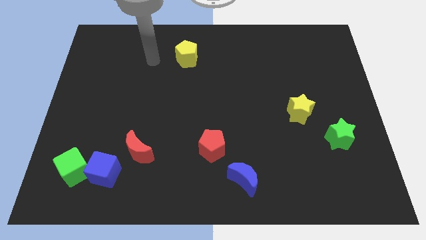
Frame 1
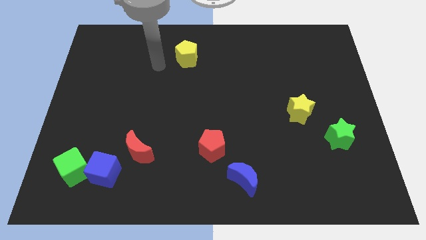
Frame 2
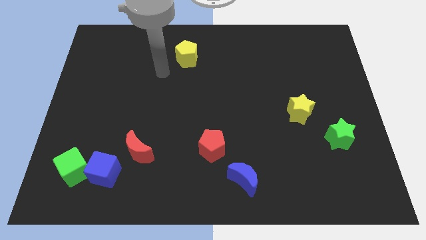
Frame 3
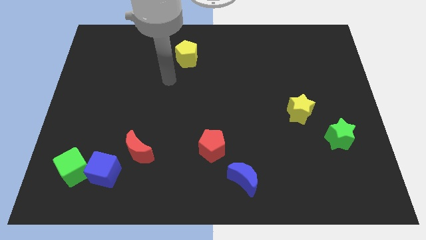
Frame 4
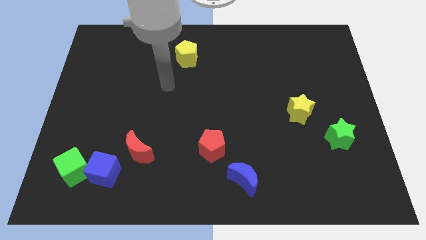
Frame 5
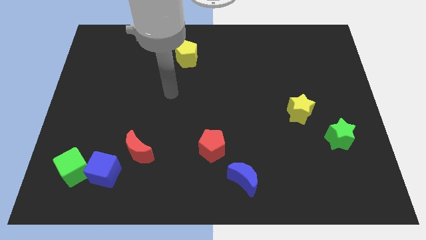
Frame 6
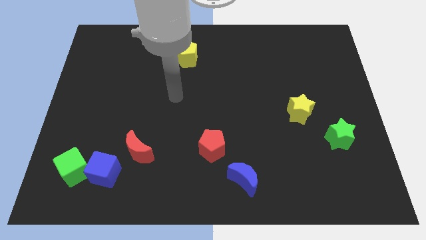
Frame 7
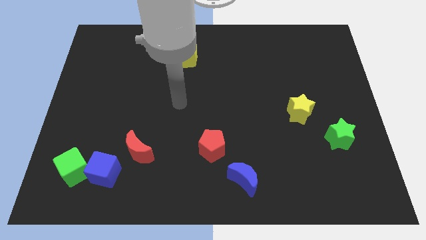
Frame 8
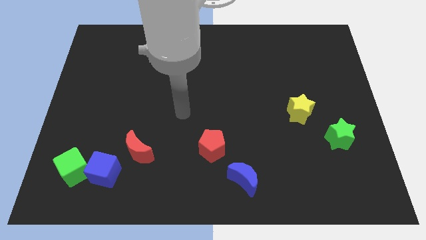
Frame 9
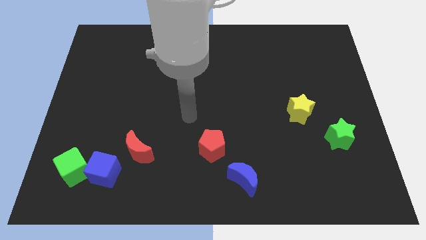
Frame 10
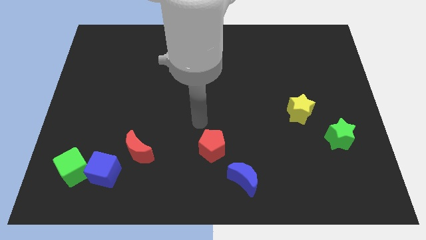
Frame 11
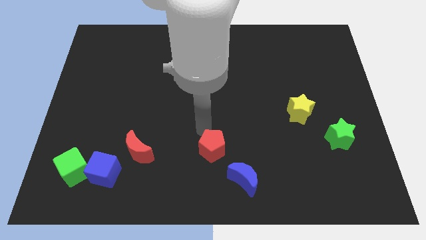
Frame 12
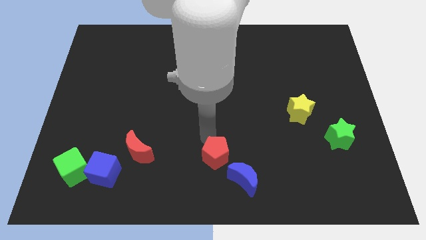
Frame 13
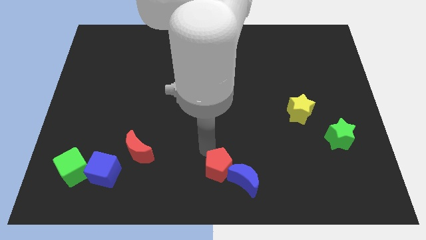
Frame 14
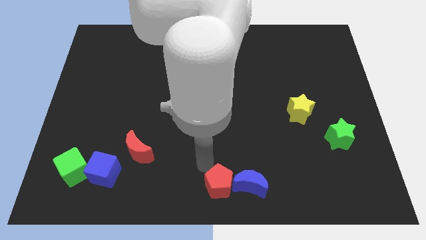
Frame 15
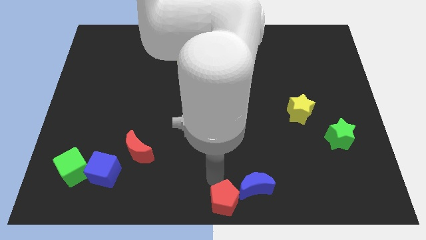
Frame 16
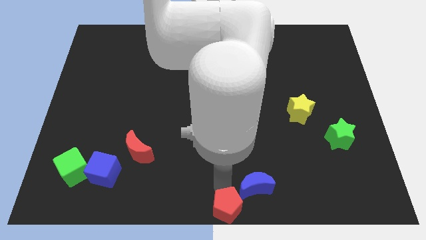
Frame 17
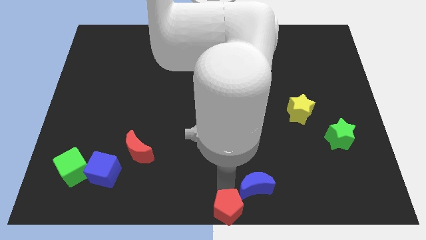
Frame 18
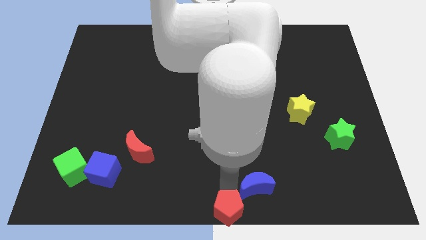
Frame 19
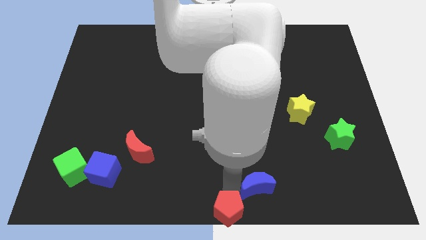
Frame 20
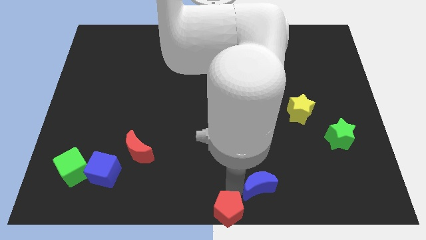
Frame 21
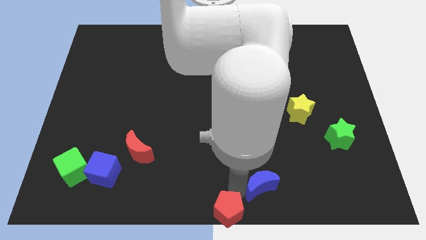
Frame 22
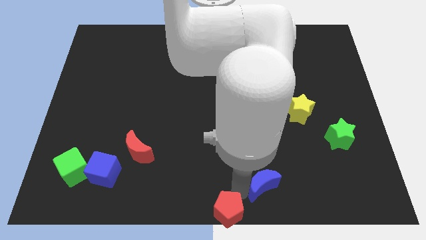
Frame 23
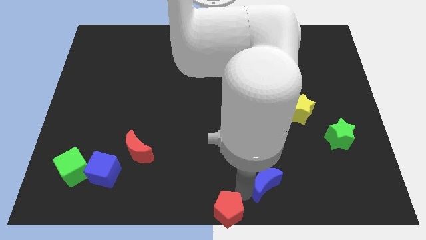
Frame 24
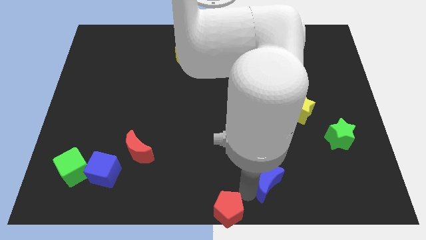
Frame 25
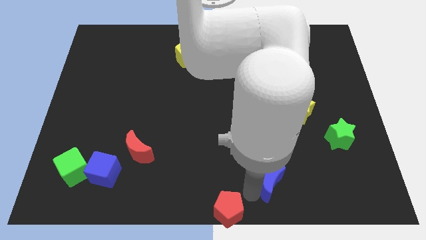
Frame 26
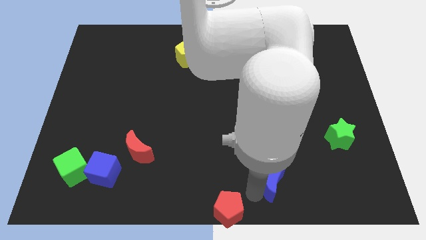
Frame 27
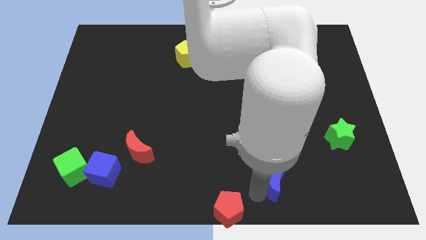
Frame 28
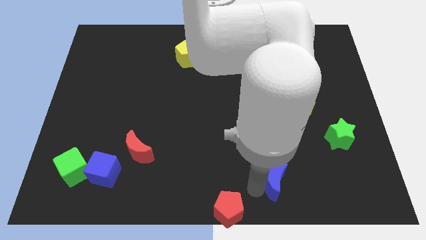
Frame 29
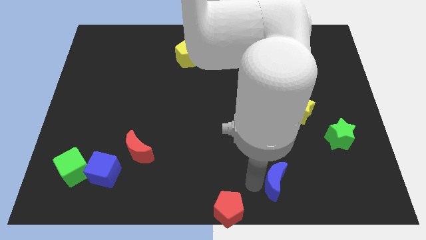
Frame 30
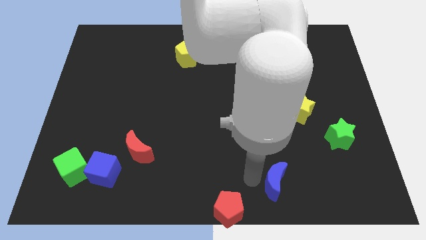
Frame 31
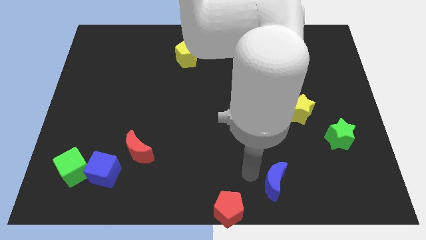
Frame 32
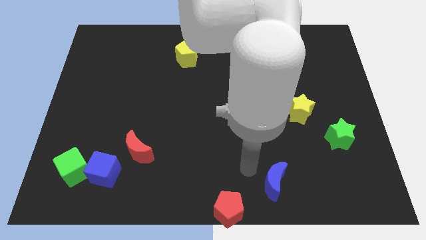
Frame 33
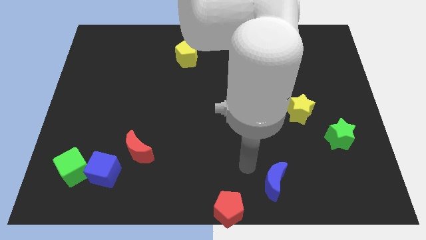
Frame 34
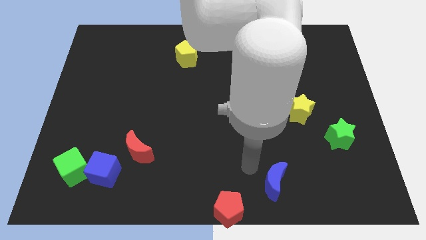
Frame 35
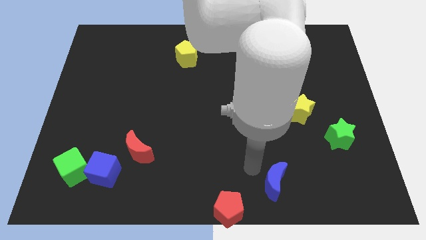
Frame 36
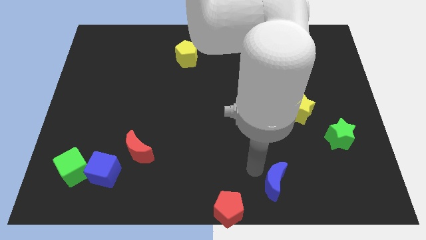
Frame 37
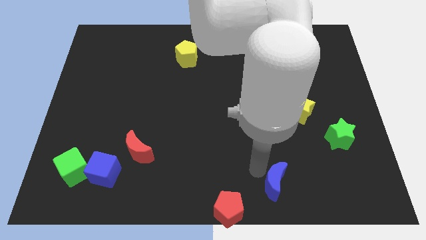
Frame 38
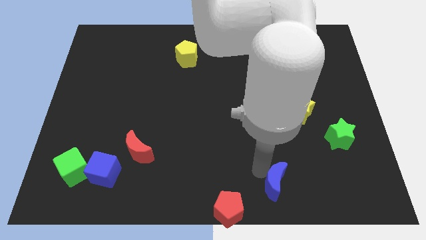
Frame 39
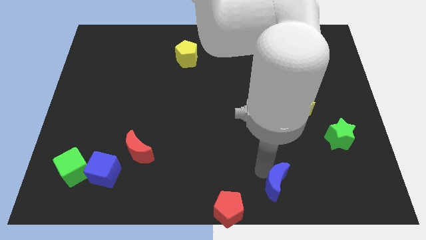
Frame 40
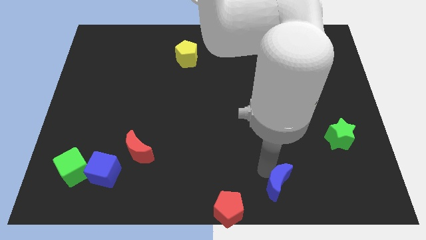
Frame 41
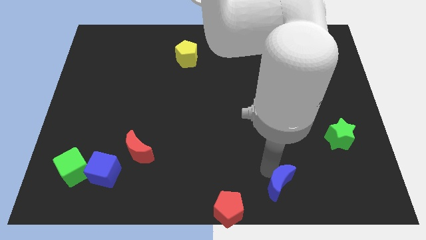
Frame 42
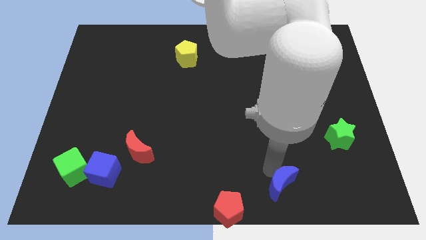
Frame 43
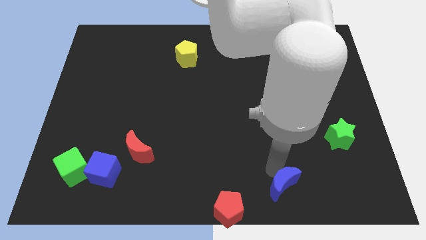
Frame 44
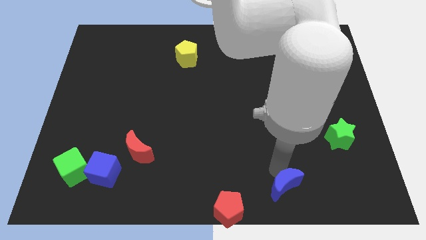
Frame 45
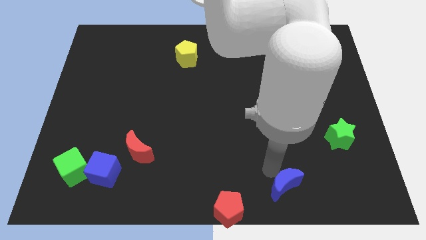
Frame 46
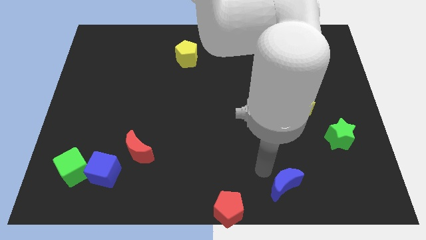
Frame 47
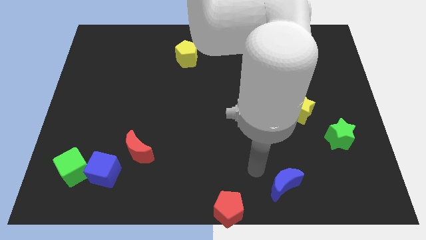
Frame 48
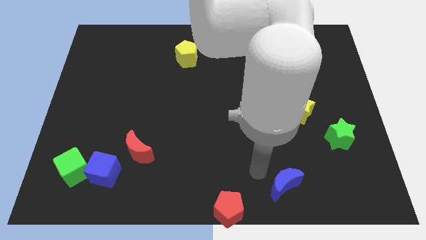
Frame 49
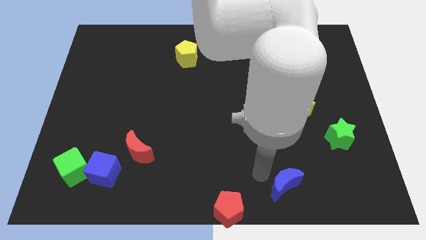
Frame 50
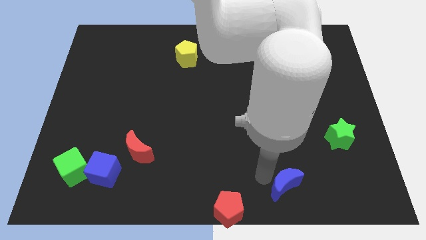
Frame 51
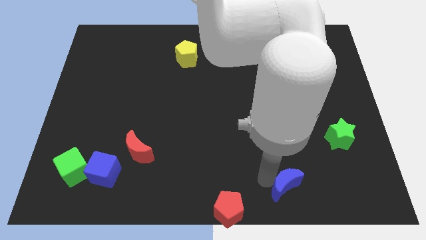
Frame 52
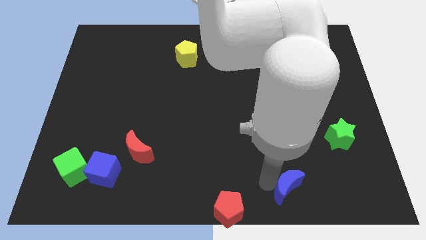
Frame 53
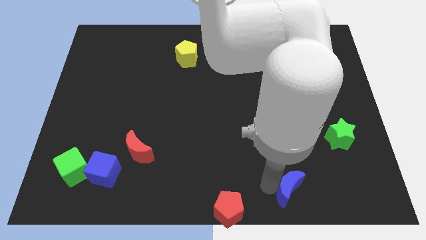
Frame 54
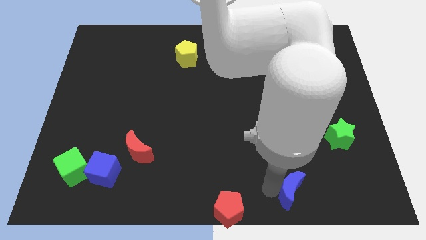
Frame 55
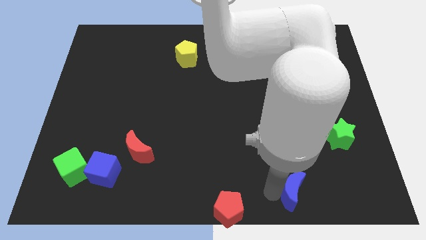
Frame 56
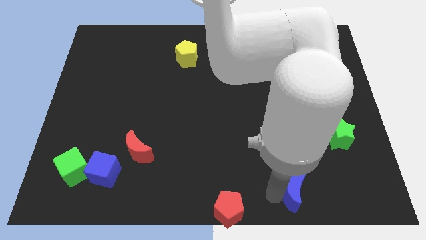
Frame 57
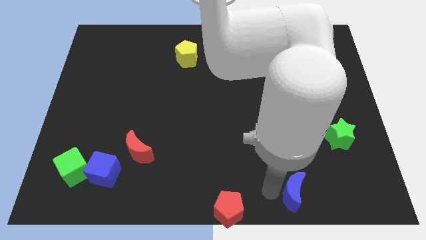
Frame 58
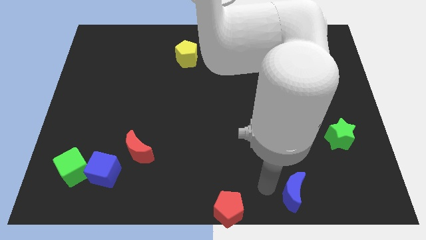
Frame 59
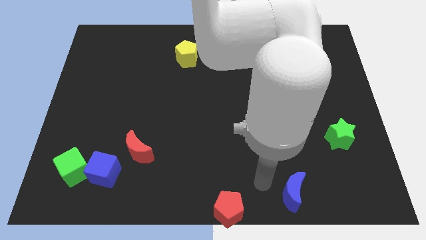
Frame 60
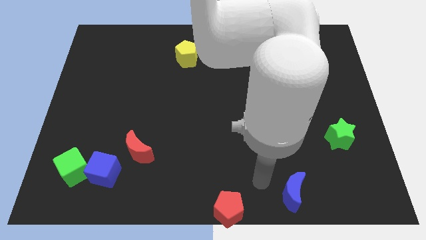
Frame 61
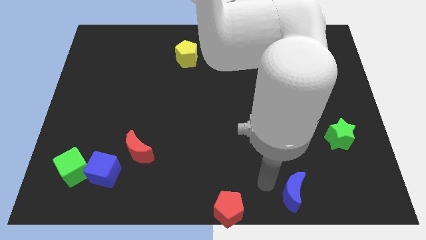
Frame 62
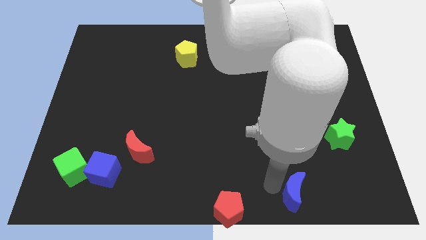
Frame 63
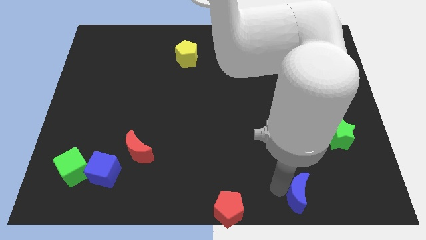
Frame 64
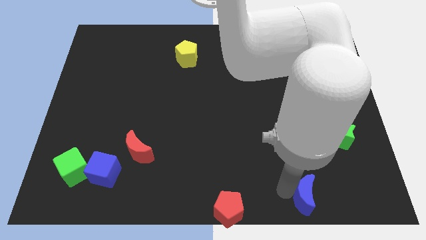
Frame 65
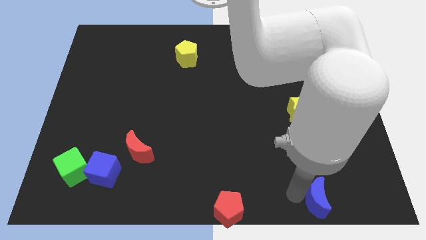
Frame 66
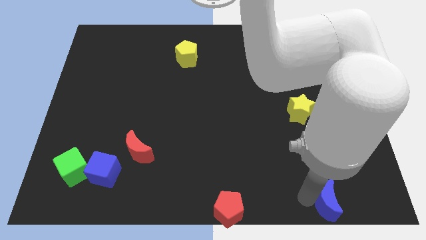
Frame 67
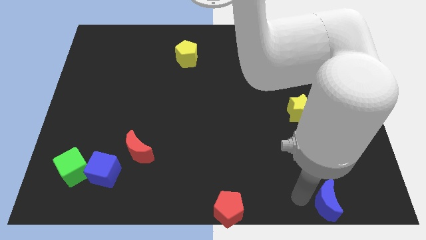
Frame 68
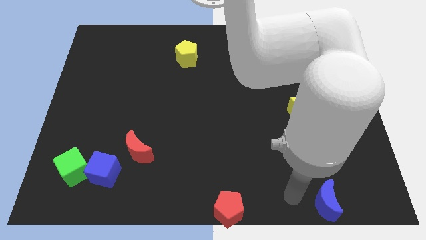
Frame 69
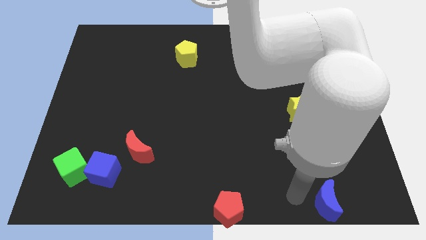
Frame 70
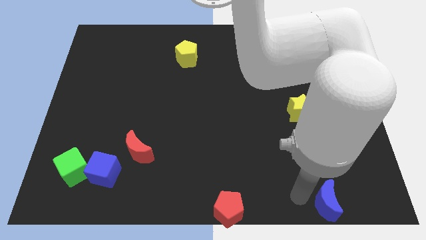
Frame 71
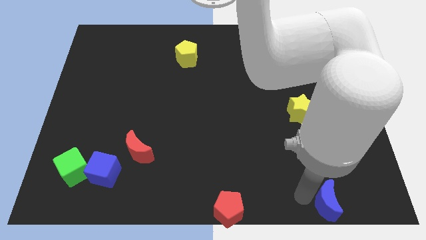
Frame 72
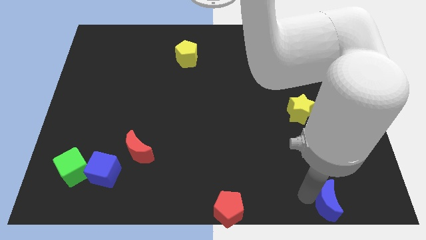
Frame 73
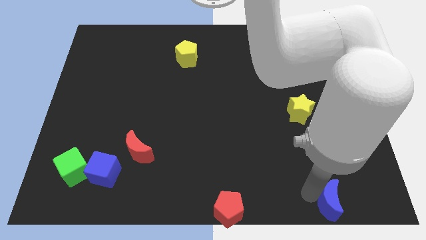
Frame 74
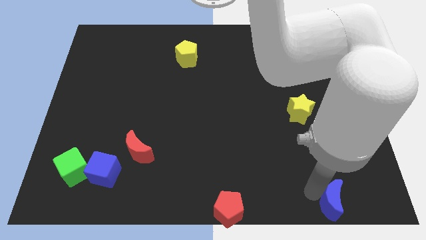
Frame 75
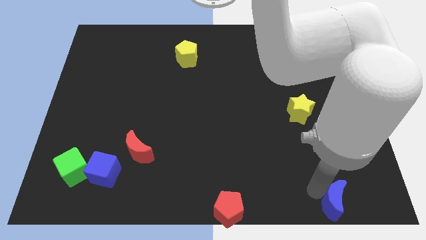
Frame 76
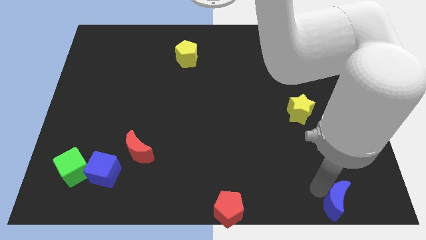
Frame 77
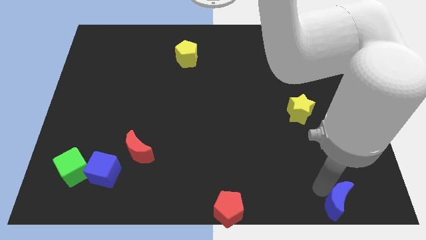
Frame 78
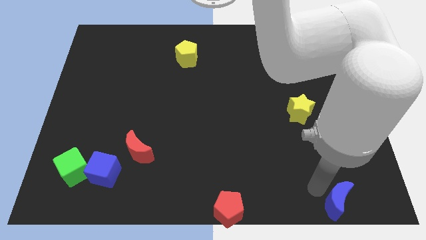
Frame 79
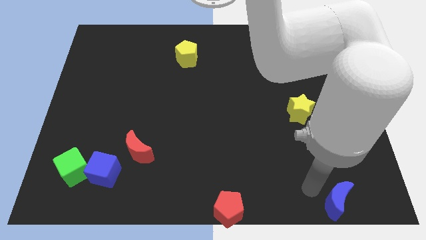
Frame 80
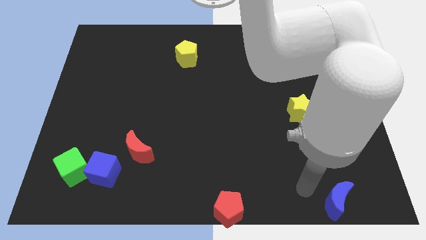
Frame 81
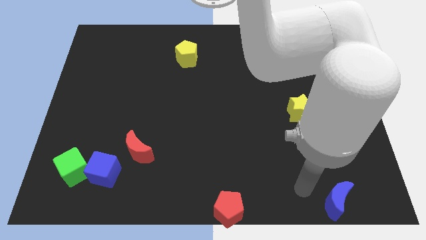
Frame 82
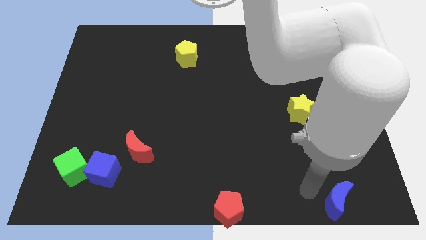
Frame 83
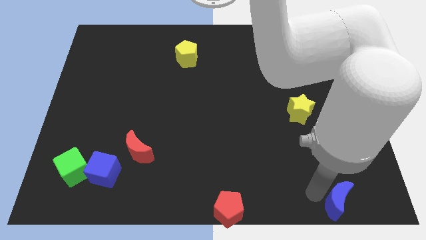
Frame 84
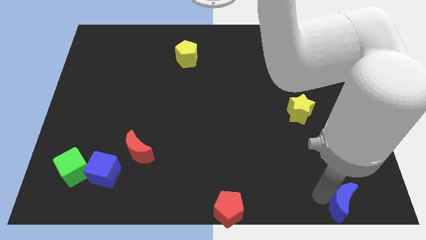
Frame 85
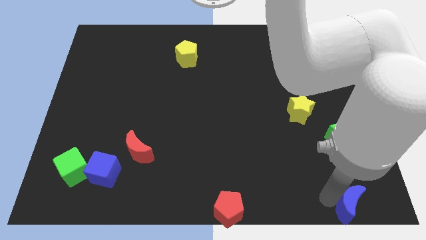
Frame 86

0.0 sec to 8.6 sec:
slide the blue moon to the bottom right
